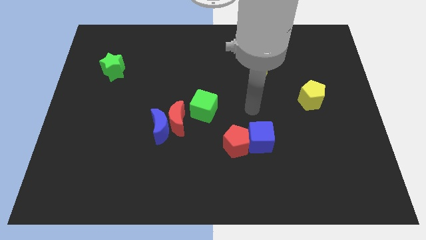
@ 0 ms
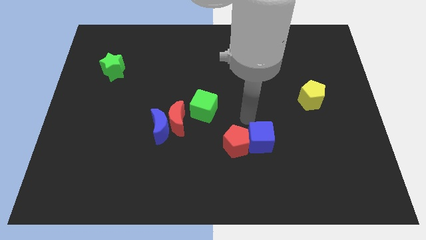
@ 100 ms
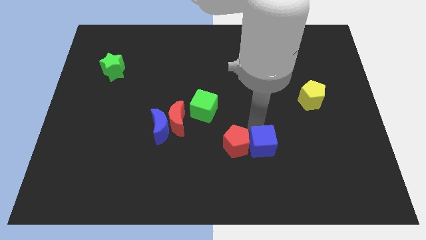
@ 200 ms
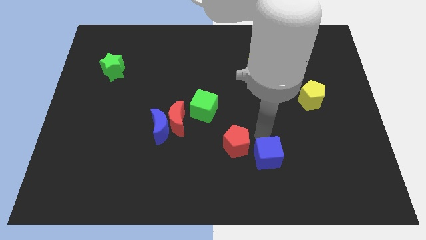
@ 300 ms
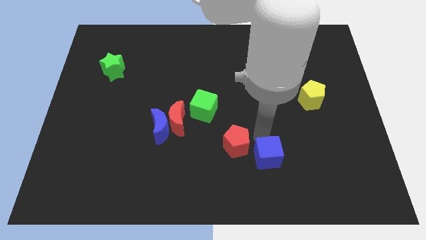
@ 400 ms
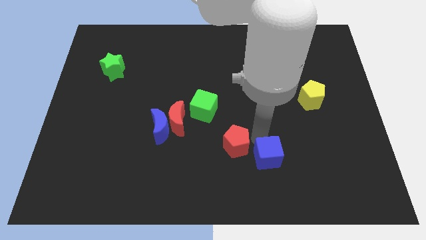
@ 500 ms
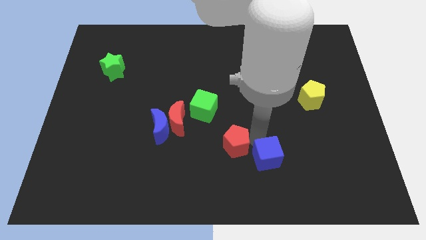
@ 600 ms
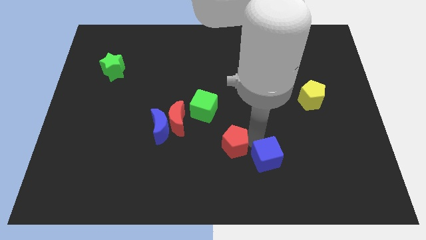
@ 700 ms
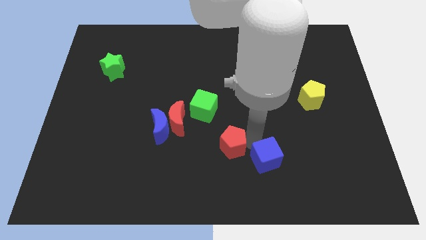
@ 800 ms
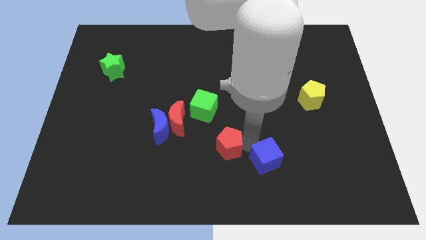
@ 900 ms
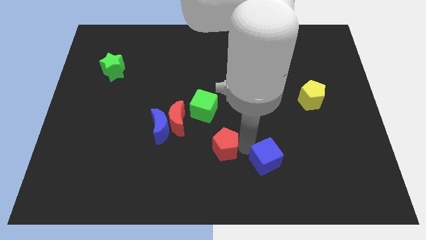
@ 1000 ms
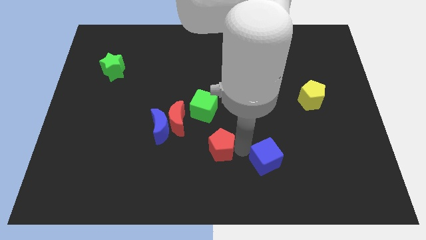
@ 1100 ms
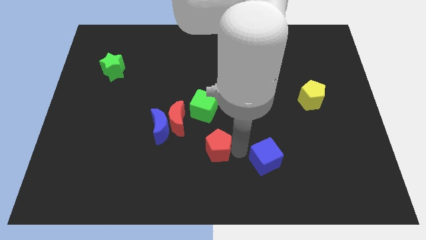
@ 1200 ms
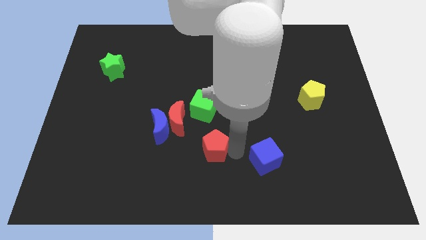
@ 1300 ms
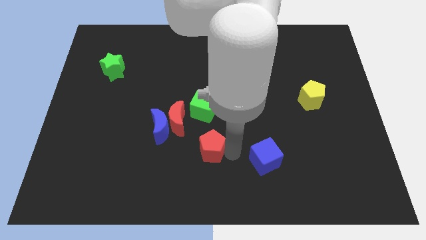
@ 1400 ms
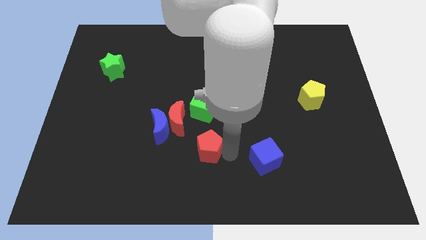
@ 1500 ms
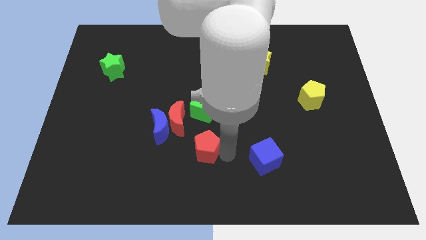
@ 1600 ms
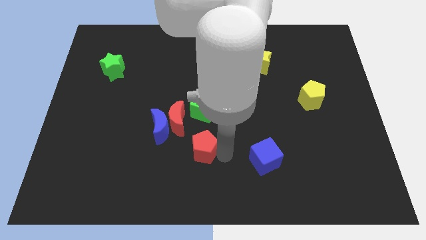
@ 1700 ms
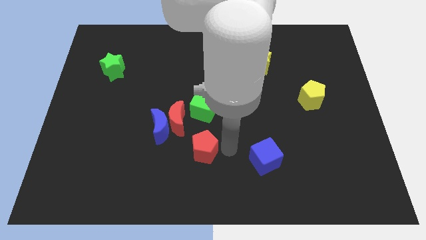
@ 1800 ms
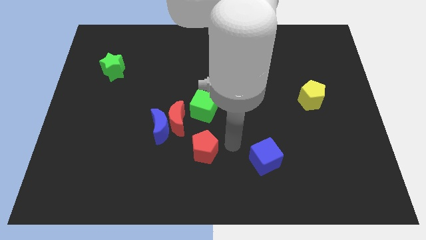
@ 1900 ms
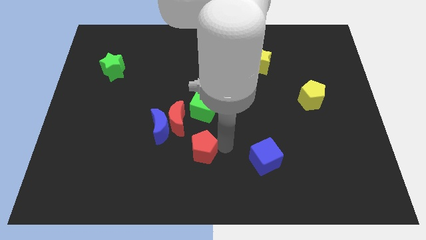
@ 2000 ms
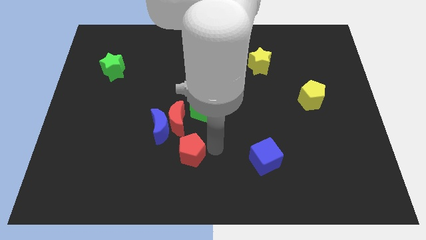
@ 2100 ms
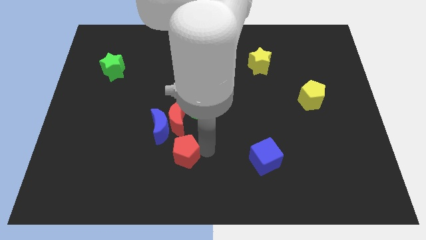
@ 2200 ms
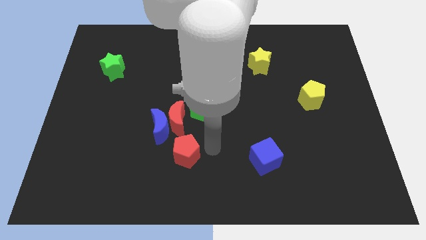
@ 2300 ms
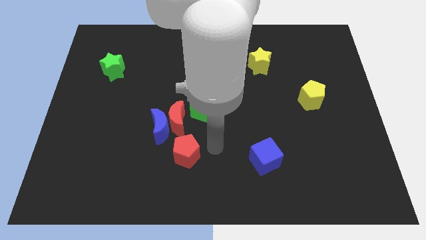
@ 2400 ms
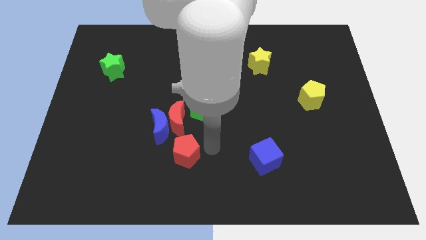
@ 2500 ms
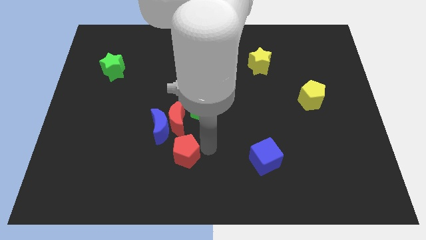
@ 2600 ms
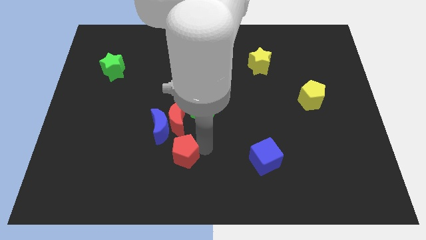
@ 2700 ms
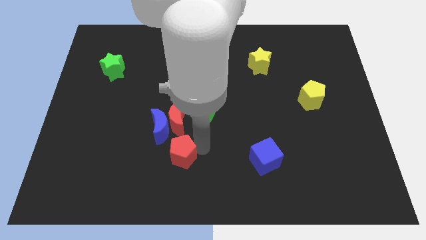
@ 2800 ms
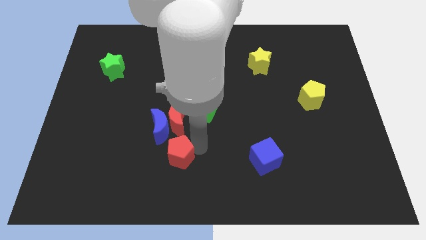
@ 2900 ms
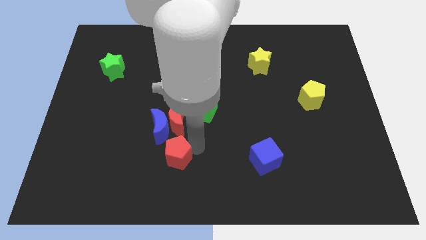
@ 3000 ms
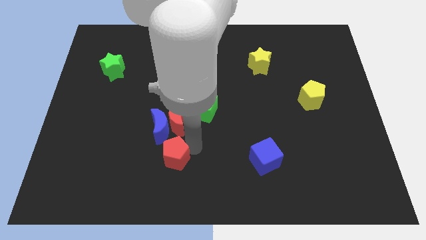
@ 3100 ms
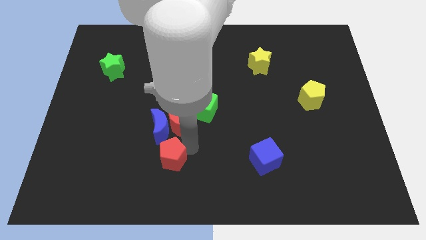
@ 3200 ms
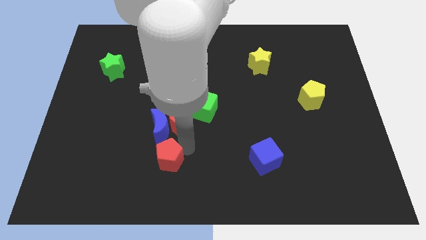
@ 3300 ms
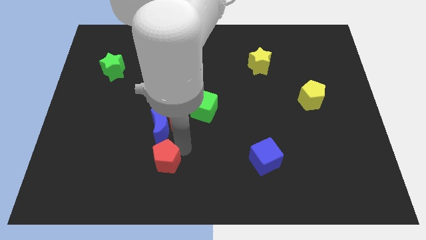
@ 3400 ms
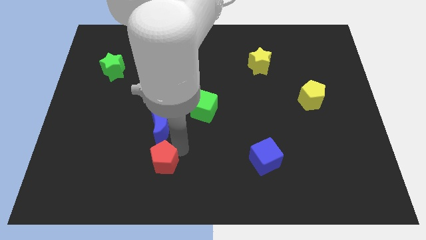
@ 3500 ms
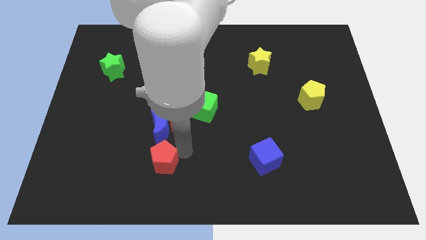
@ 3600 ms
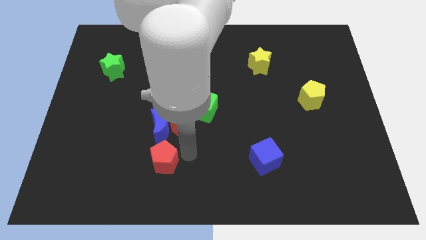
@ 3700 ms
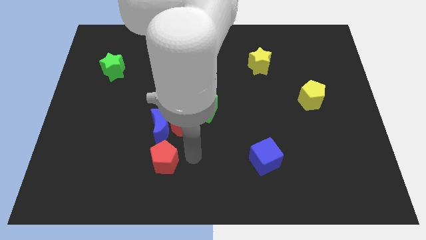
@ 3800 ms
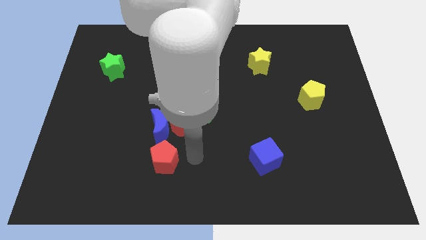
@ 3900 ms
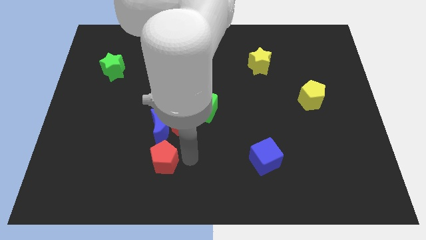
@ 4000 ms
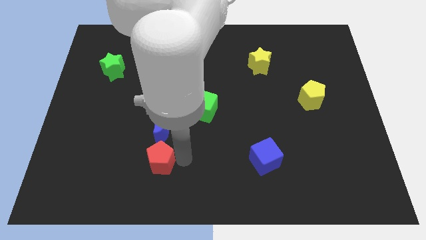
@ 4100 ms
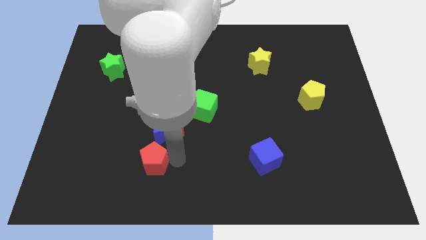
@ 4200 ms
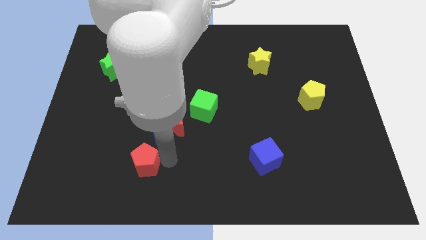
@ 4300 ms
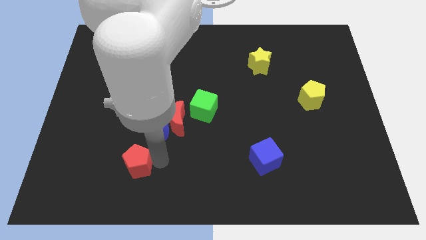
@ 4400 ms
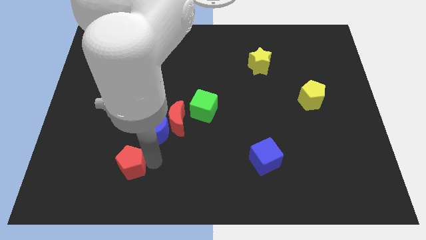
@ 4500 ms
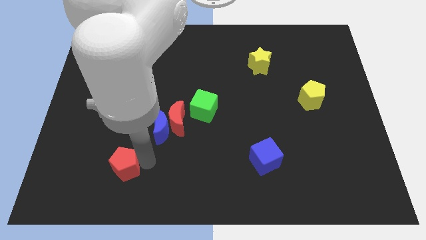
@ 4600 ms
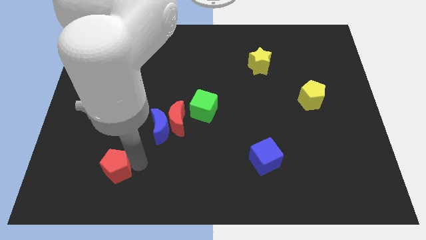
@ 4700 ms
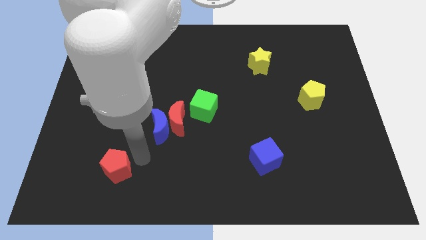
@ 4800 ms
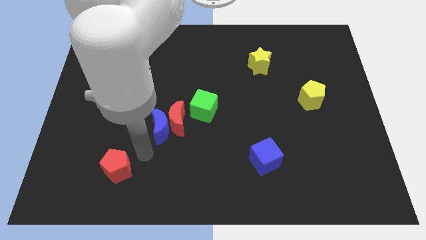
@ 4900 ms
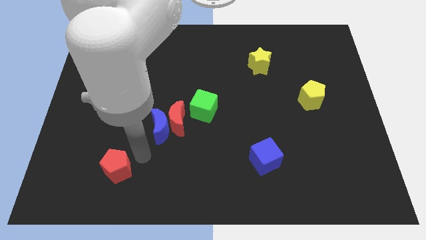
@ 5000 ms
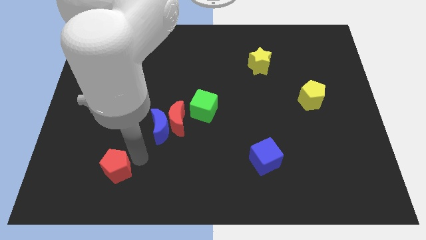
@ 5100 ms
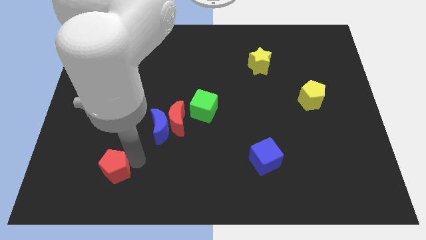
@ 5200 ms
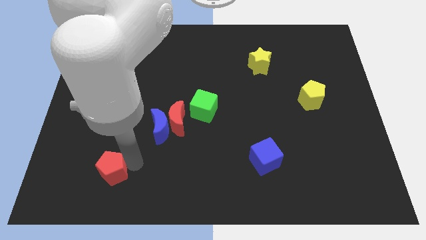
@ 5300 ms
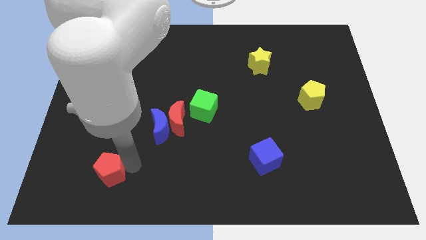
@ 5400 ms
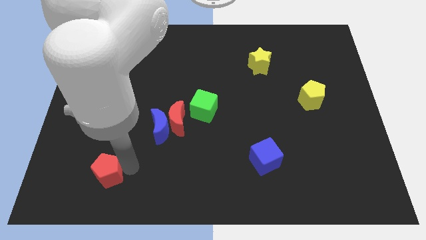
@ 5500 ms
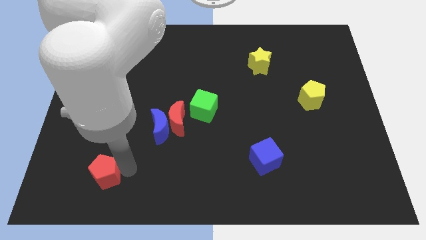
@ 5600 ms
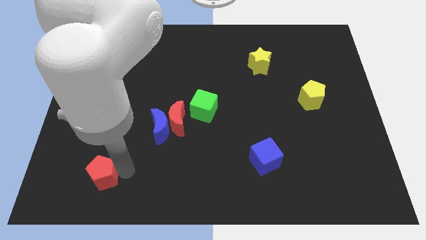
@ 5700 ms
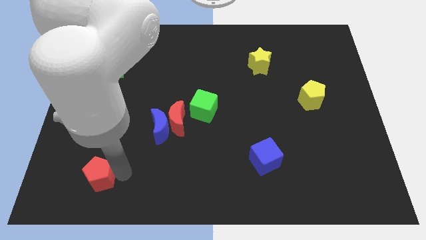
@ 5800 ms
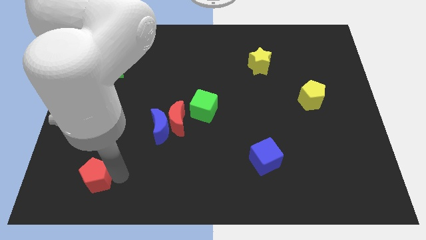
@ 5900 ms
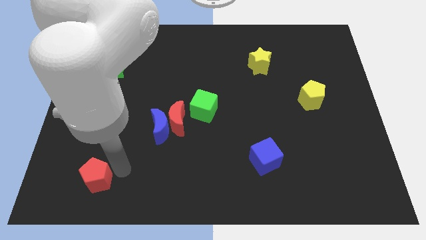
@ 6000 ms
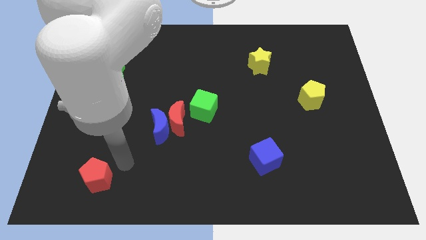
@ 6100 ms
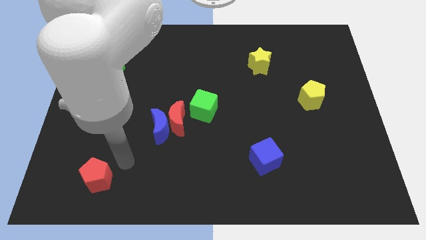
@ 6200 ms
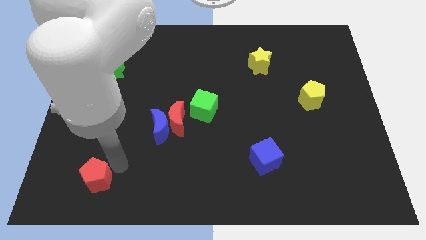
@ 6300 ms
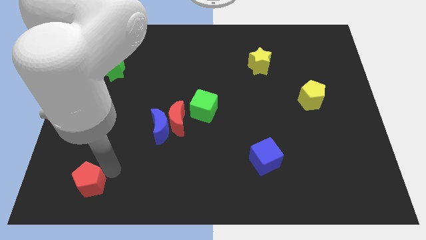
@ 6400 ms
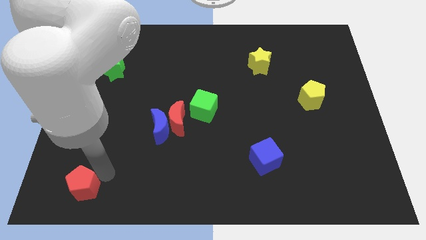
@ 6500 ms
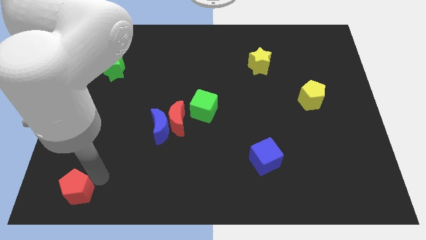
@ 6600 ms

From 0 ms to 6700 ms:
move the red pentagon to the lower left corner

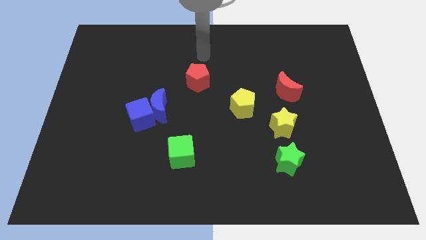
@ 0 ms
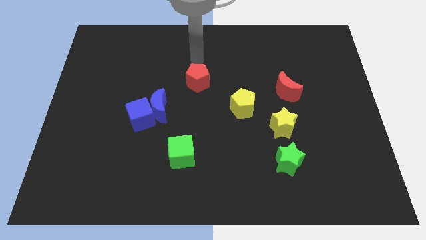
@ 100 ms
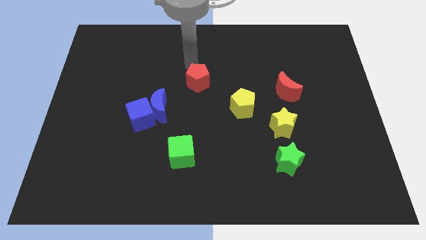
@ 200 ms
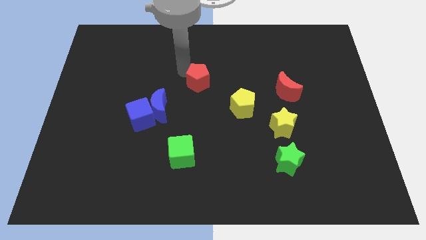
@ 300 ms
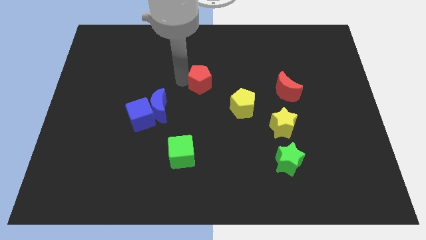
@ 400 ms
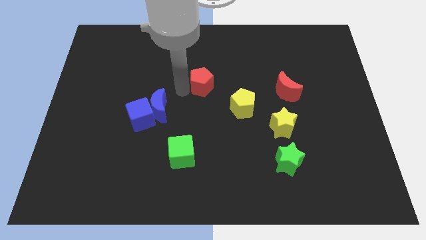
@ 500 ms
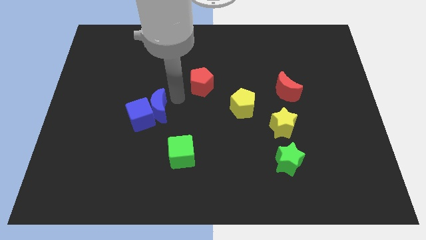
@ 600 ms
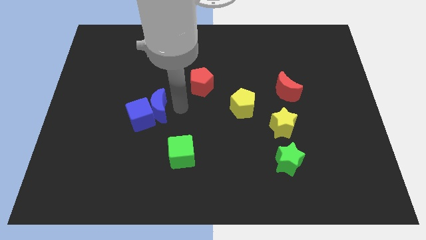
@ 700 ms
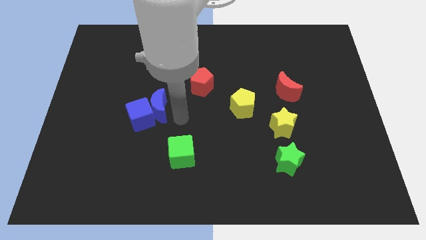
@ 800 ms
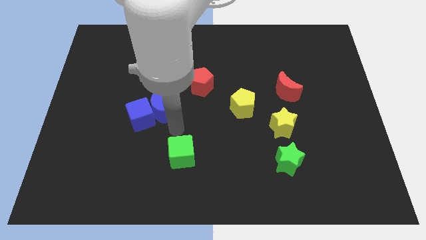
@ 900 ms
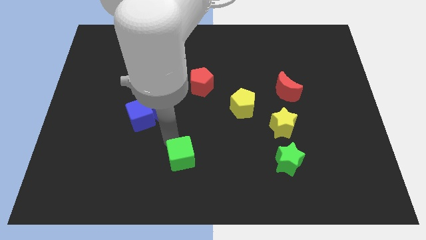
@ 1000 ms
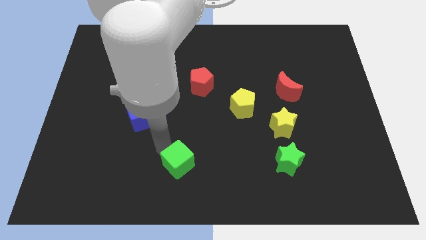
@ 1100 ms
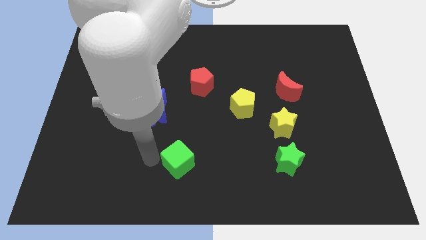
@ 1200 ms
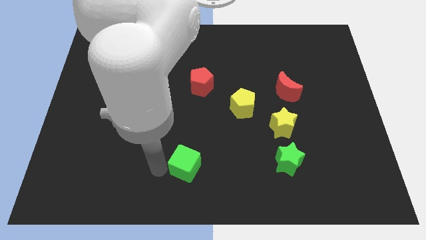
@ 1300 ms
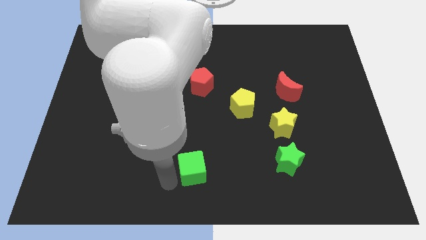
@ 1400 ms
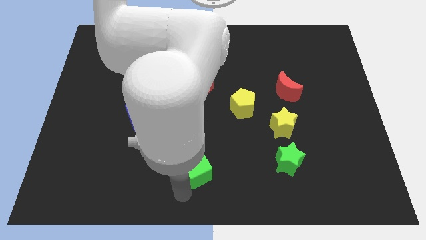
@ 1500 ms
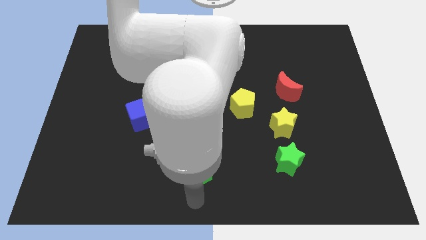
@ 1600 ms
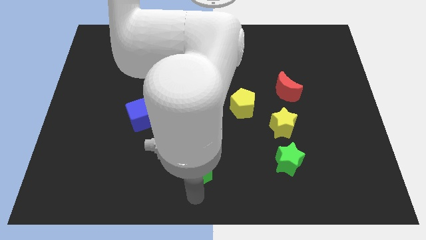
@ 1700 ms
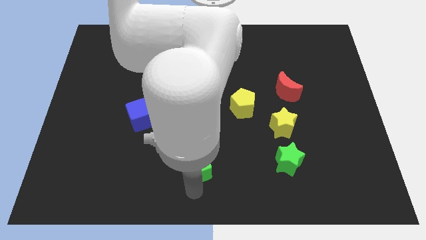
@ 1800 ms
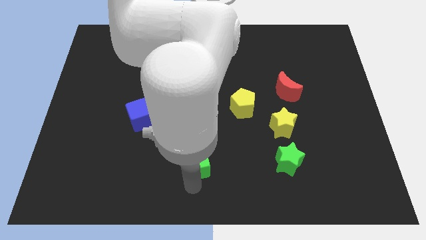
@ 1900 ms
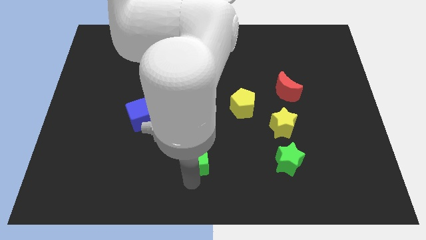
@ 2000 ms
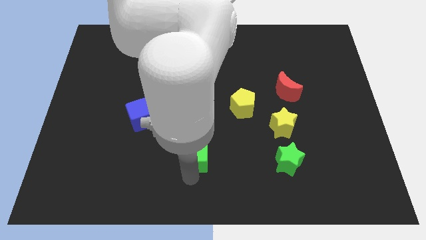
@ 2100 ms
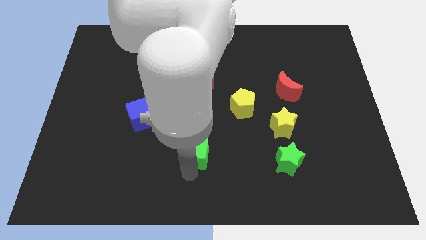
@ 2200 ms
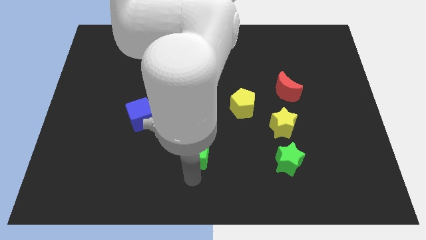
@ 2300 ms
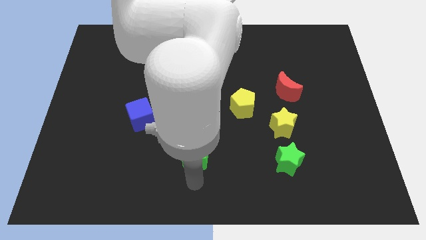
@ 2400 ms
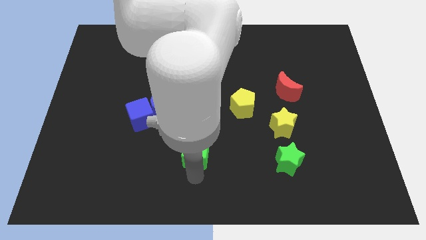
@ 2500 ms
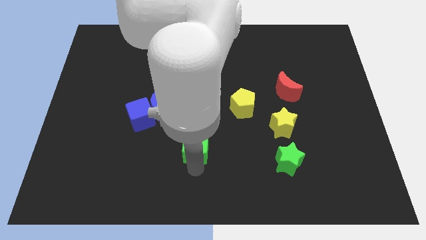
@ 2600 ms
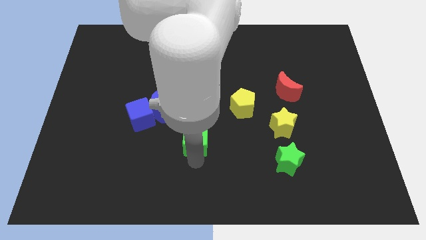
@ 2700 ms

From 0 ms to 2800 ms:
push the green cube to the middle
